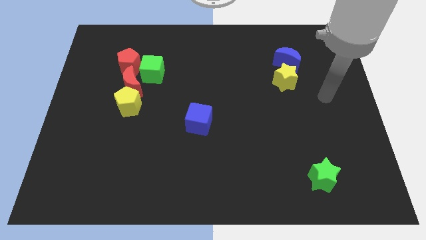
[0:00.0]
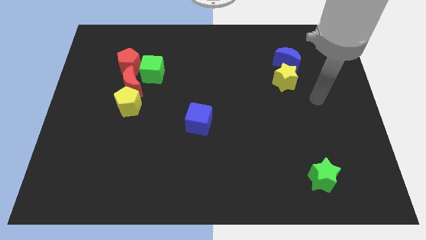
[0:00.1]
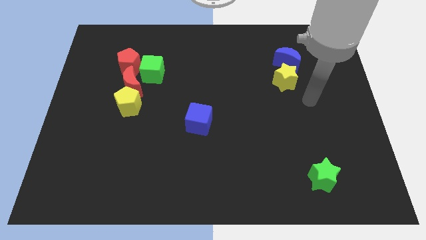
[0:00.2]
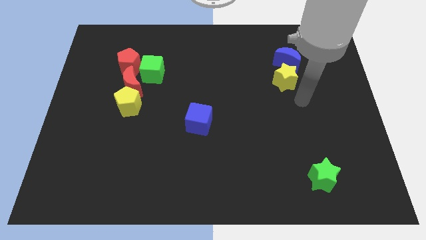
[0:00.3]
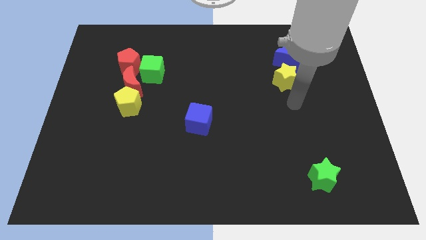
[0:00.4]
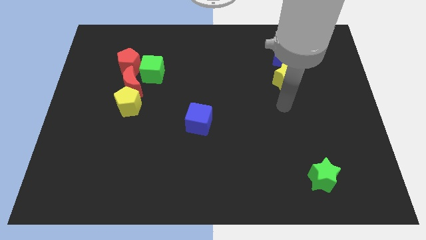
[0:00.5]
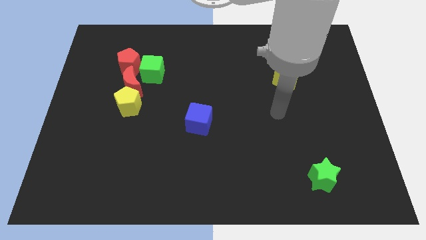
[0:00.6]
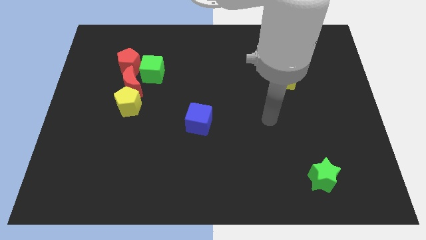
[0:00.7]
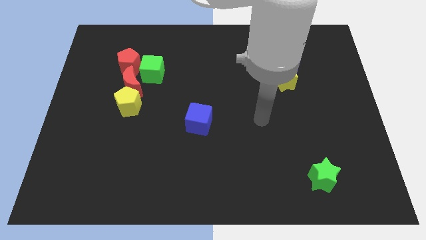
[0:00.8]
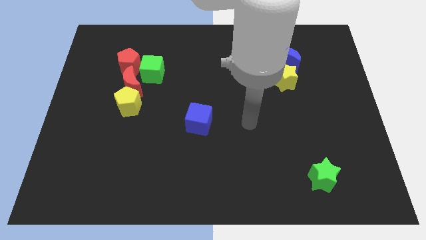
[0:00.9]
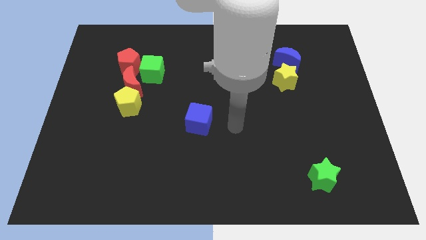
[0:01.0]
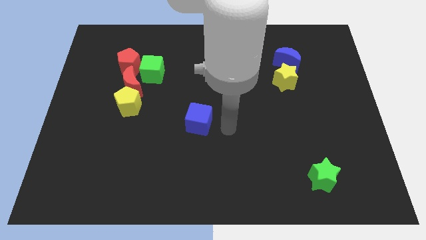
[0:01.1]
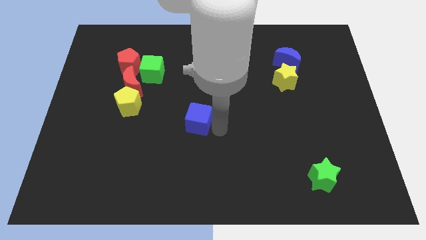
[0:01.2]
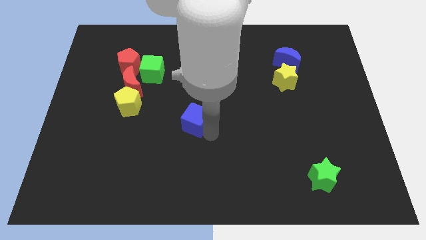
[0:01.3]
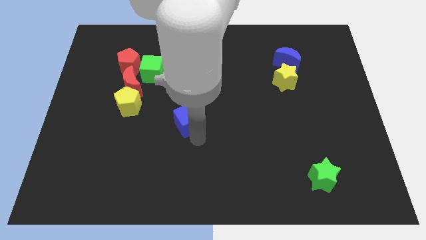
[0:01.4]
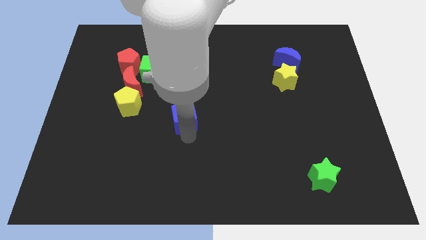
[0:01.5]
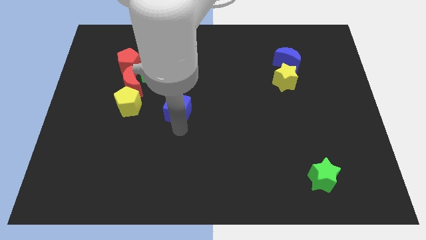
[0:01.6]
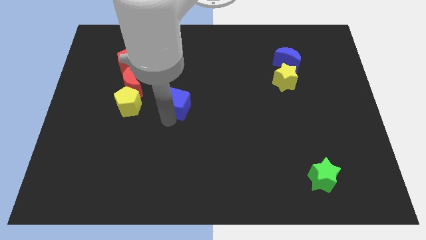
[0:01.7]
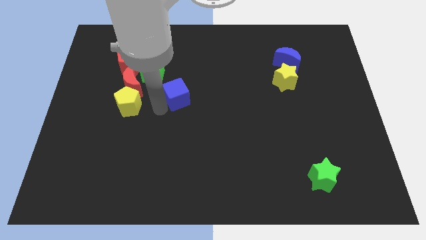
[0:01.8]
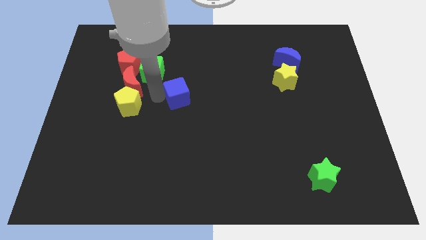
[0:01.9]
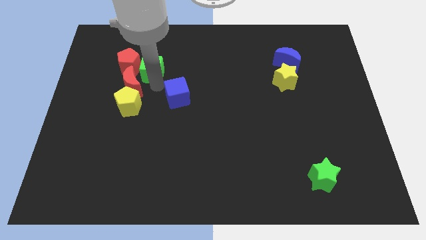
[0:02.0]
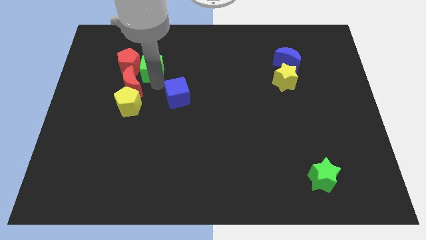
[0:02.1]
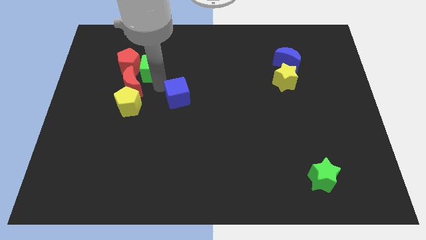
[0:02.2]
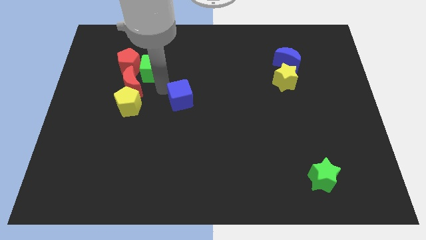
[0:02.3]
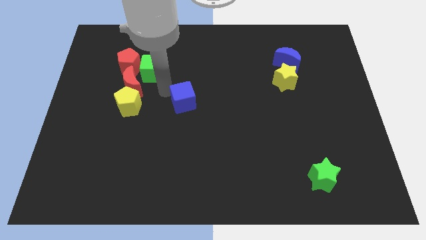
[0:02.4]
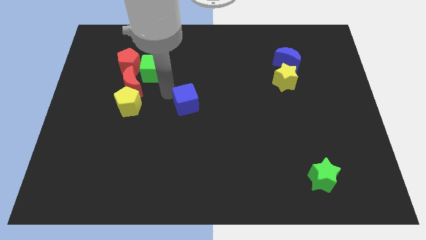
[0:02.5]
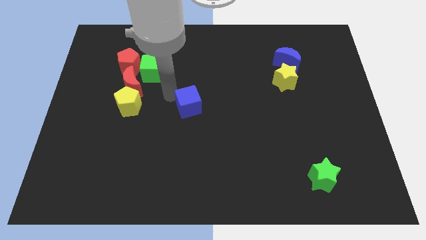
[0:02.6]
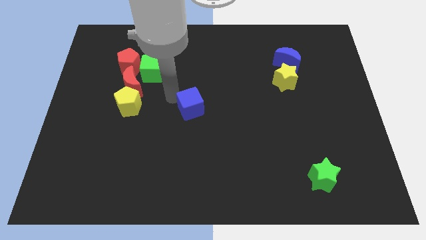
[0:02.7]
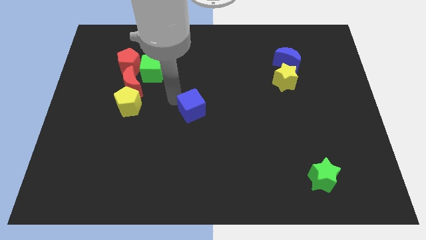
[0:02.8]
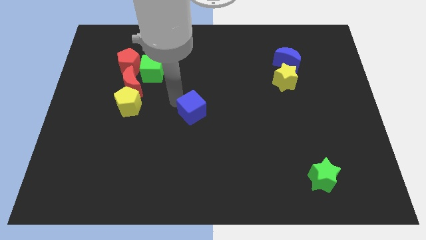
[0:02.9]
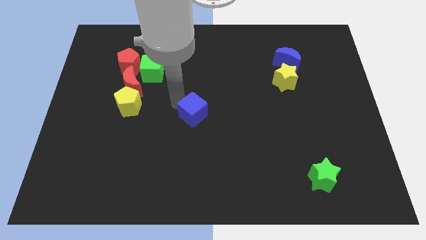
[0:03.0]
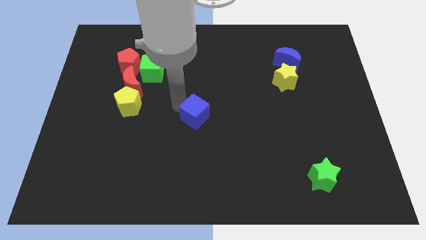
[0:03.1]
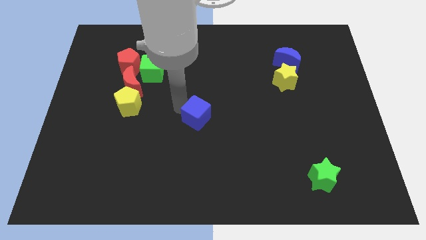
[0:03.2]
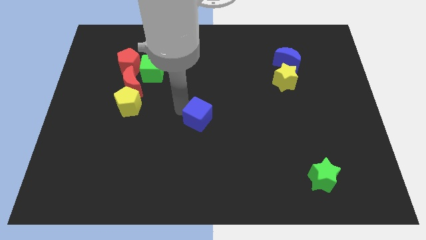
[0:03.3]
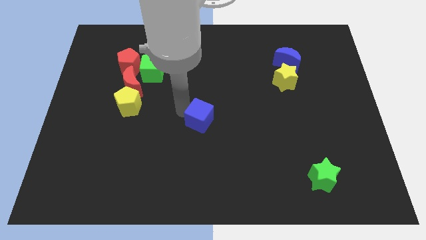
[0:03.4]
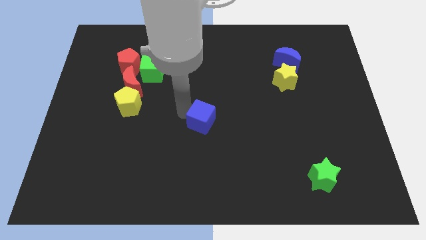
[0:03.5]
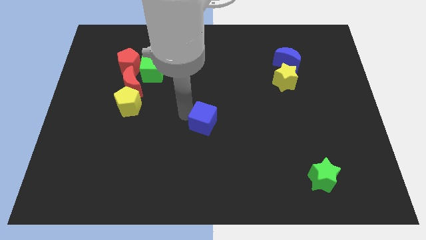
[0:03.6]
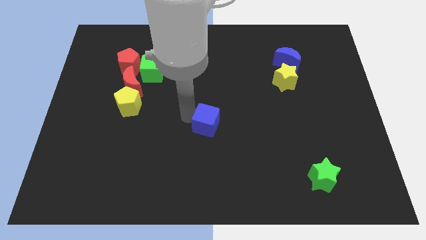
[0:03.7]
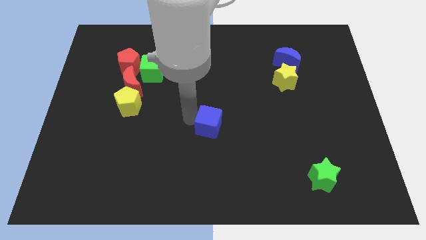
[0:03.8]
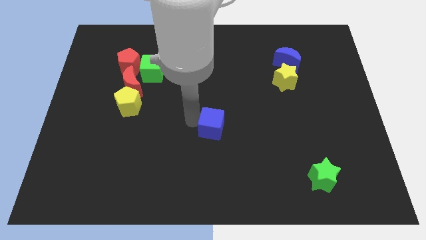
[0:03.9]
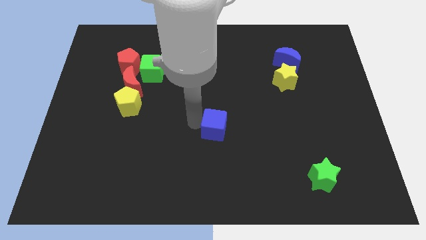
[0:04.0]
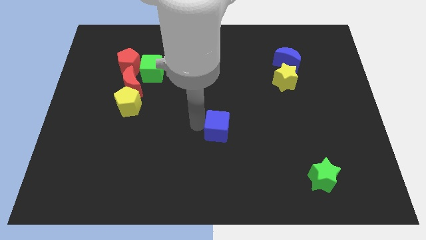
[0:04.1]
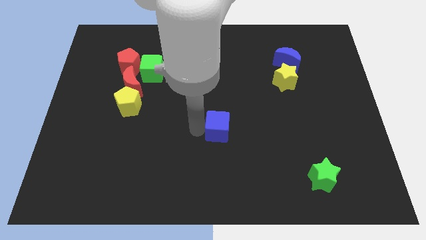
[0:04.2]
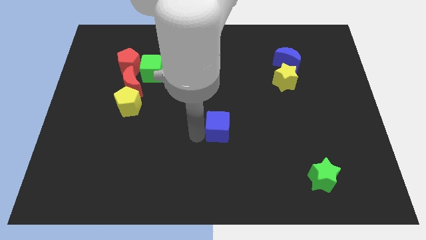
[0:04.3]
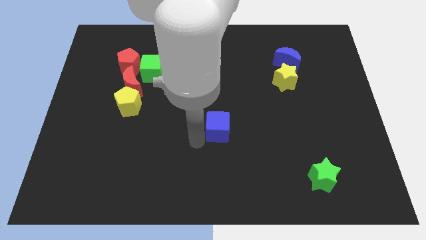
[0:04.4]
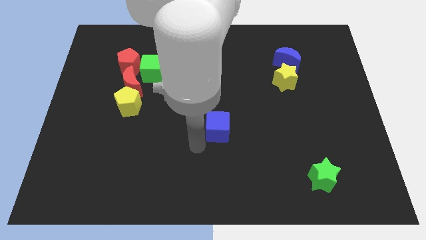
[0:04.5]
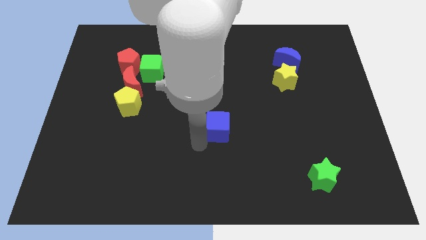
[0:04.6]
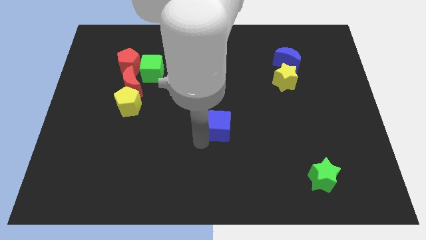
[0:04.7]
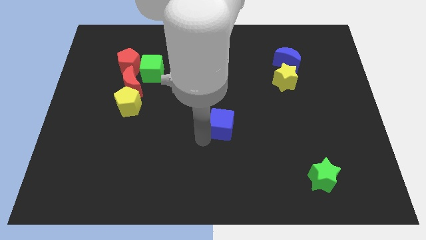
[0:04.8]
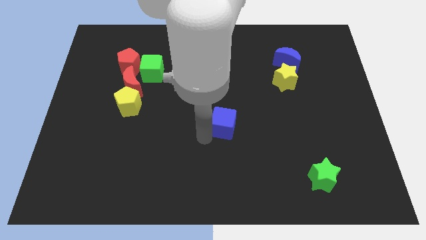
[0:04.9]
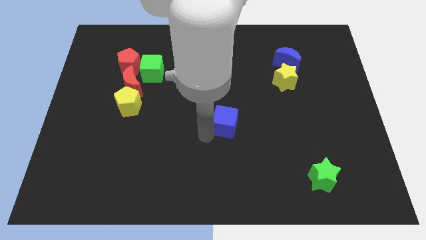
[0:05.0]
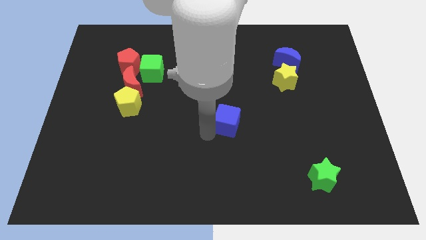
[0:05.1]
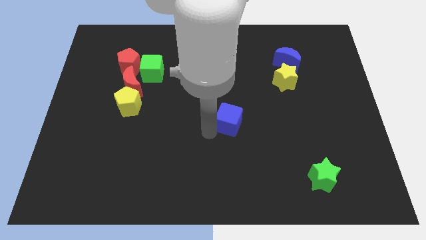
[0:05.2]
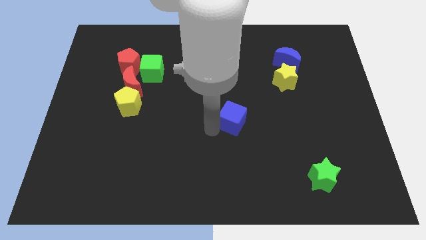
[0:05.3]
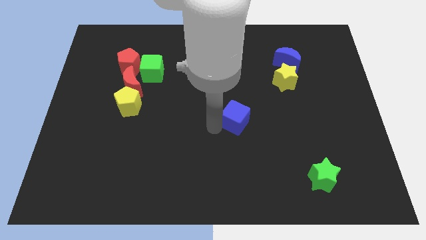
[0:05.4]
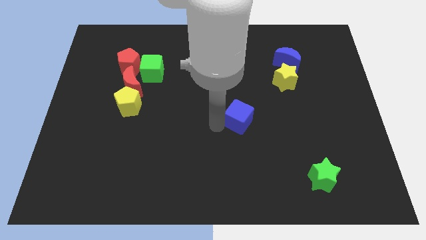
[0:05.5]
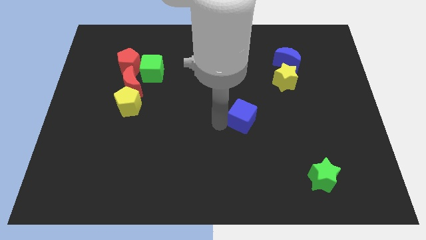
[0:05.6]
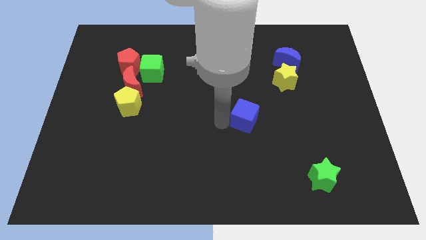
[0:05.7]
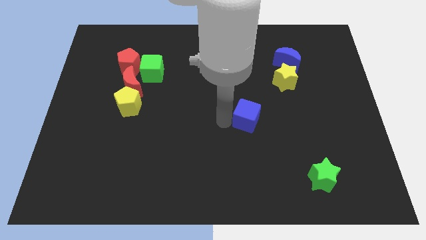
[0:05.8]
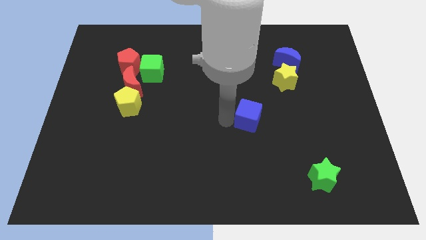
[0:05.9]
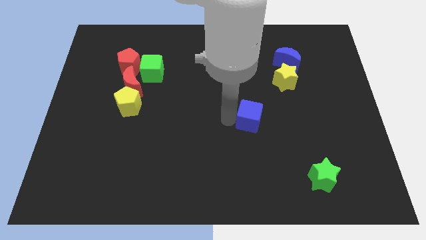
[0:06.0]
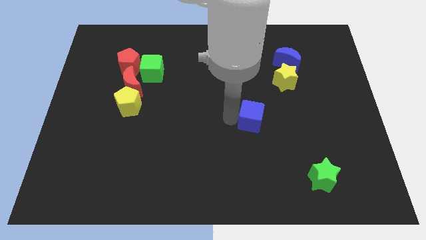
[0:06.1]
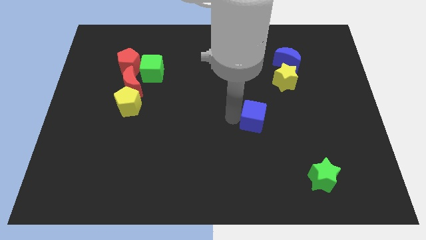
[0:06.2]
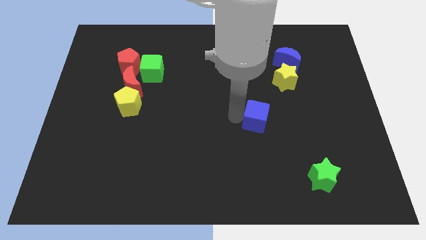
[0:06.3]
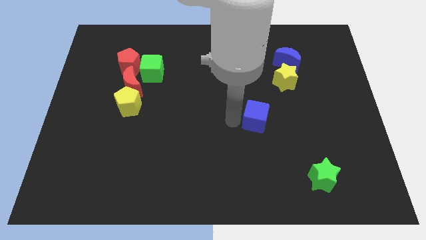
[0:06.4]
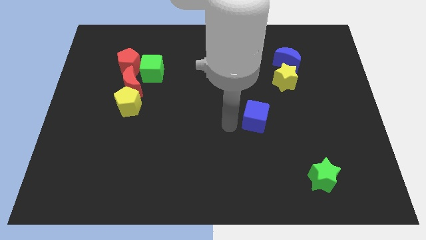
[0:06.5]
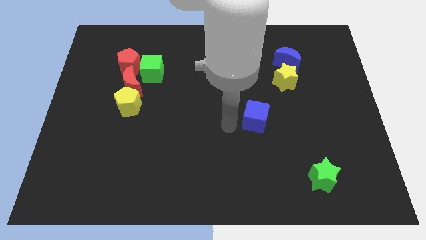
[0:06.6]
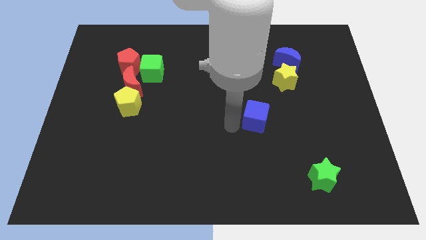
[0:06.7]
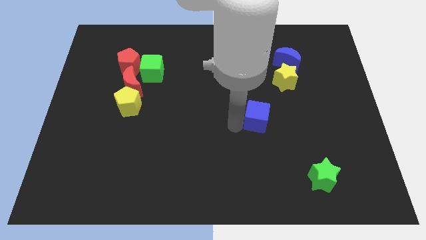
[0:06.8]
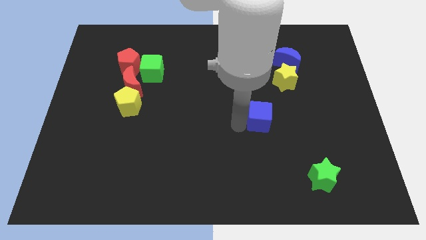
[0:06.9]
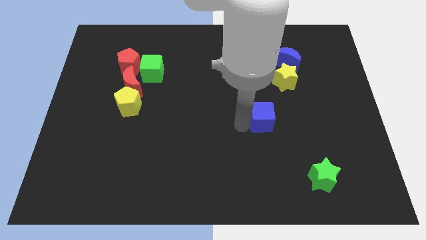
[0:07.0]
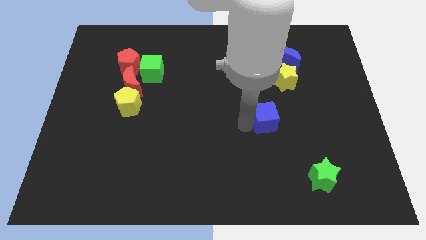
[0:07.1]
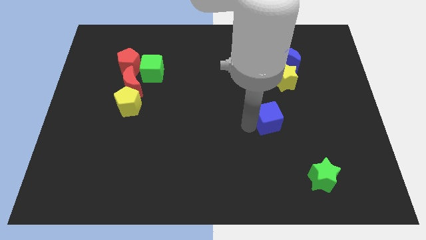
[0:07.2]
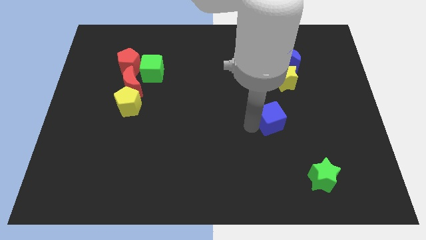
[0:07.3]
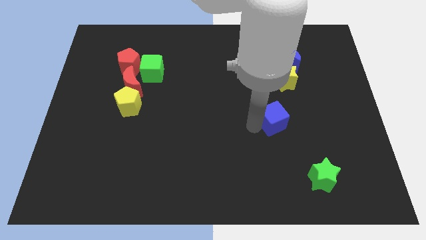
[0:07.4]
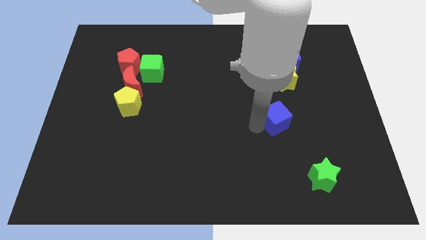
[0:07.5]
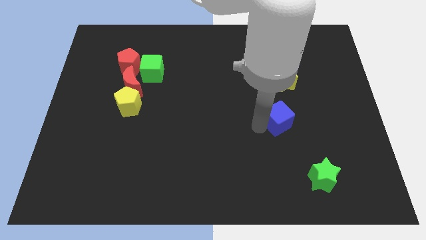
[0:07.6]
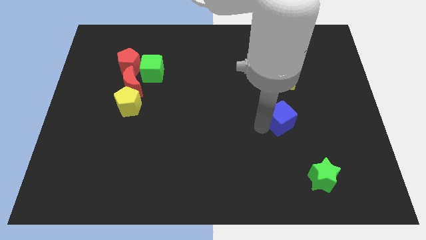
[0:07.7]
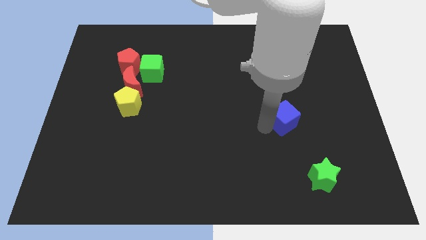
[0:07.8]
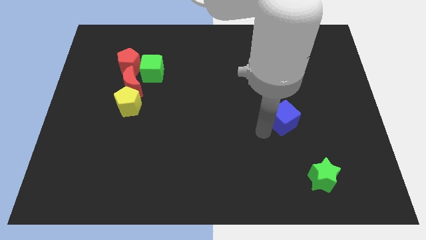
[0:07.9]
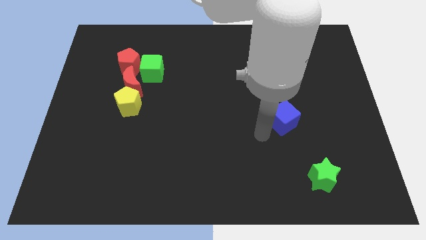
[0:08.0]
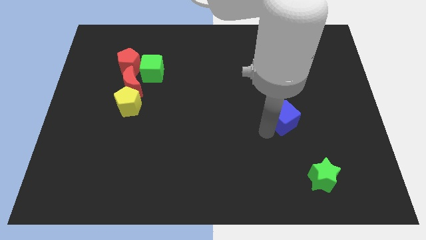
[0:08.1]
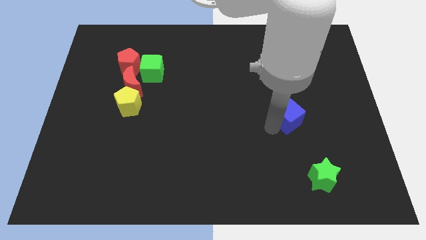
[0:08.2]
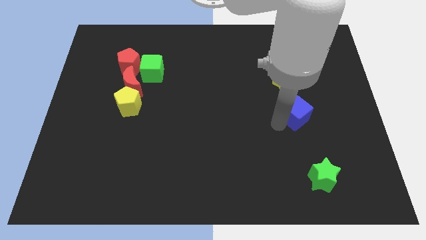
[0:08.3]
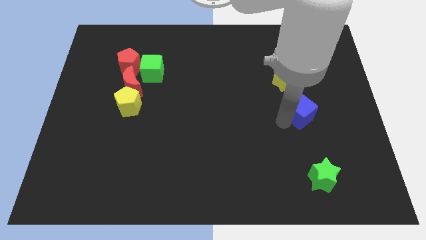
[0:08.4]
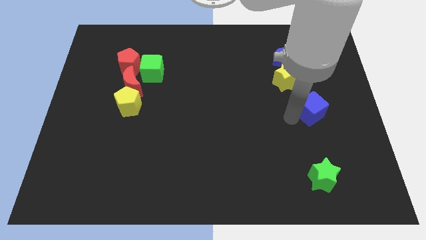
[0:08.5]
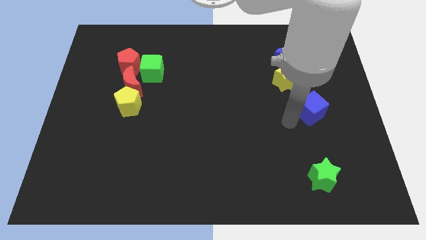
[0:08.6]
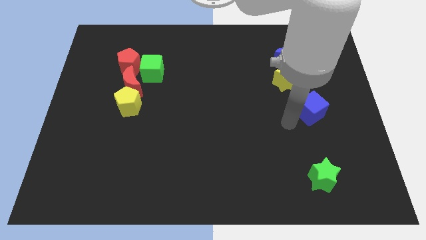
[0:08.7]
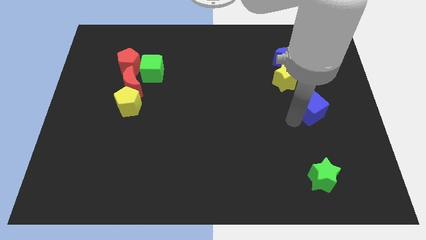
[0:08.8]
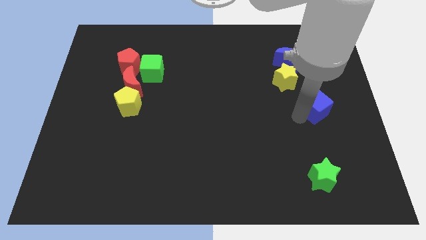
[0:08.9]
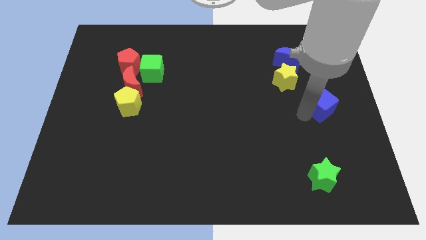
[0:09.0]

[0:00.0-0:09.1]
slide the blue cube to the center right
